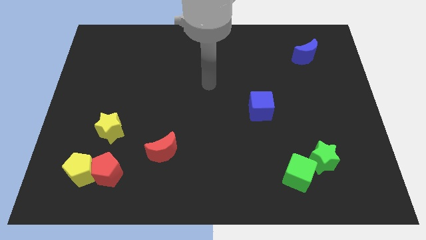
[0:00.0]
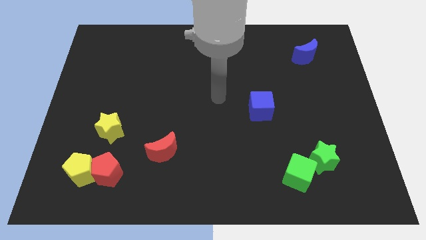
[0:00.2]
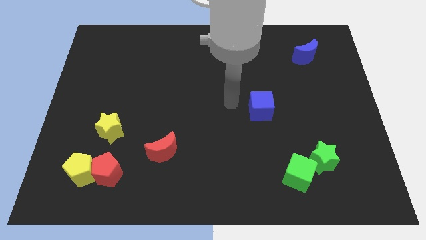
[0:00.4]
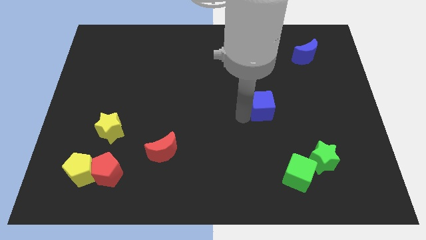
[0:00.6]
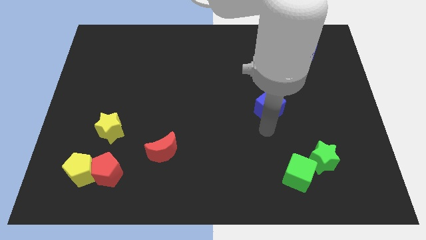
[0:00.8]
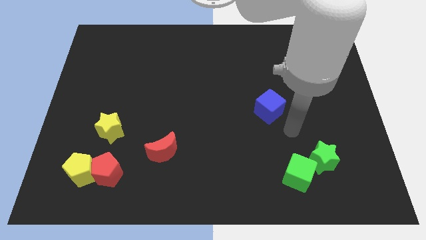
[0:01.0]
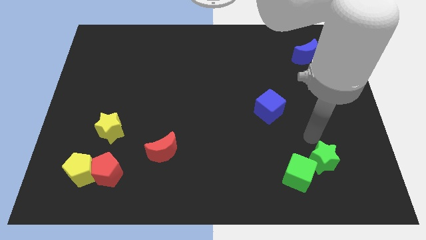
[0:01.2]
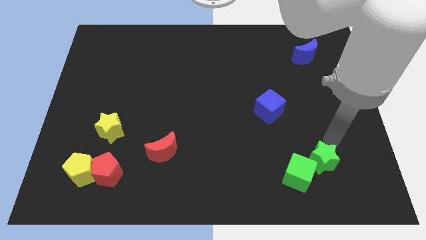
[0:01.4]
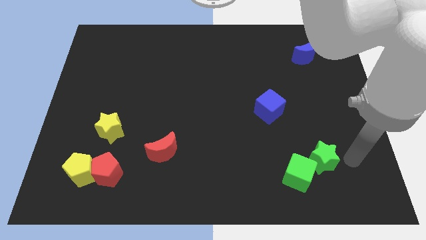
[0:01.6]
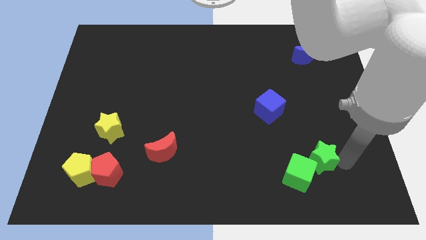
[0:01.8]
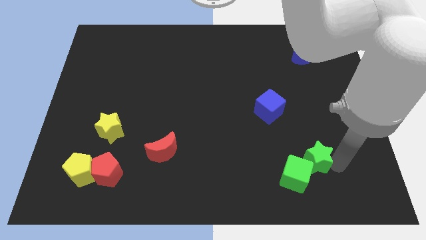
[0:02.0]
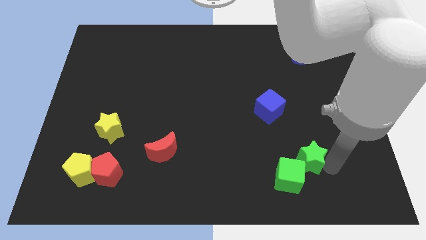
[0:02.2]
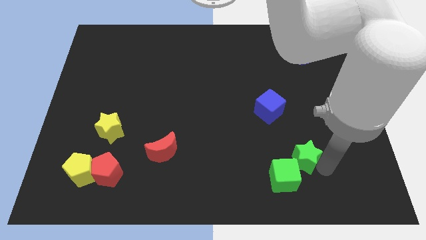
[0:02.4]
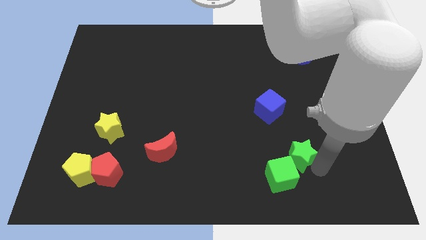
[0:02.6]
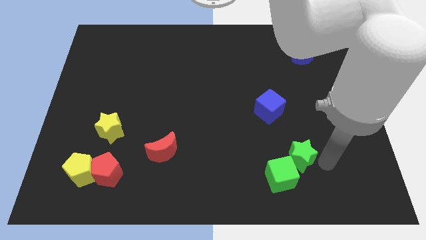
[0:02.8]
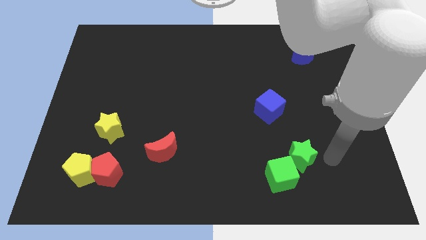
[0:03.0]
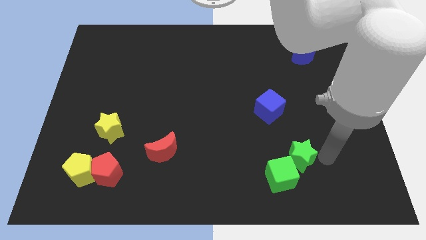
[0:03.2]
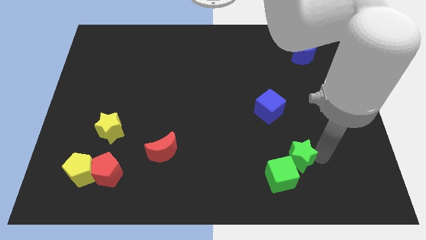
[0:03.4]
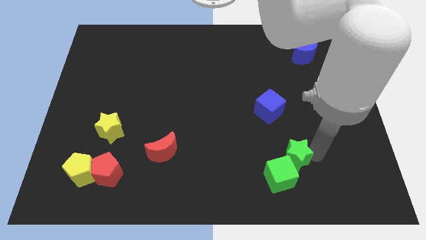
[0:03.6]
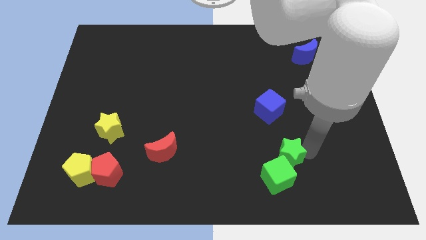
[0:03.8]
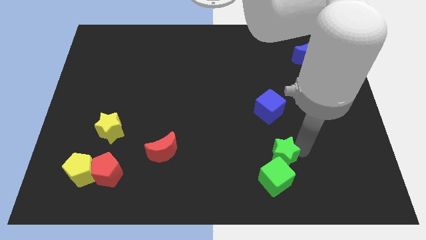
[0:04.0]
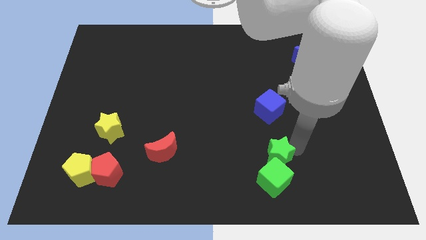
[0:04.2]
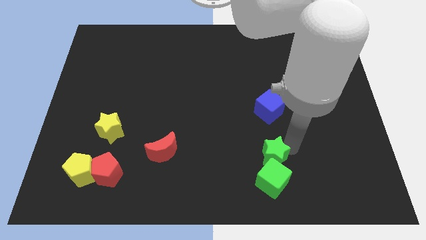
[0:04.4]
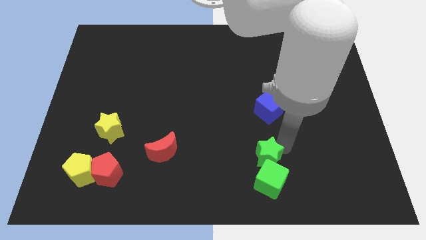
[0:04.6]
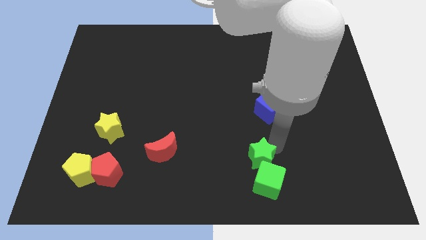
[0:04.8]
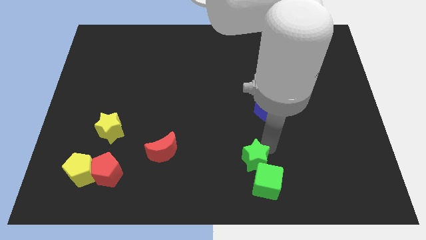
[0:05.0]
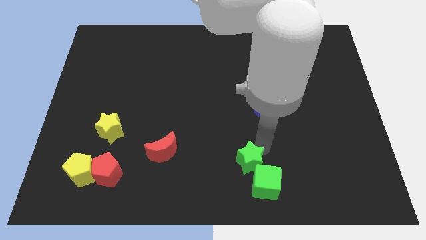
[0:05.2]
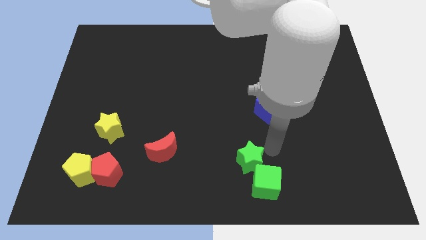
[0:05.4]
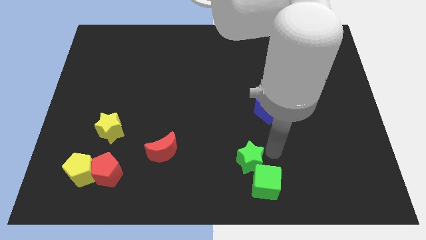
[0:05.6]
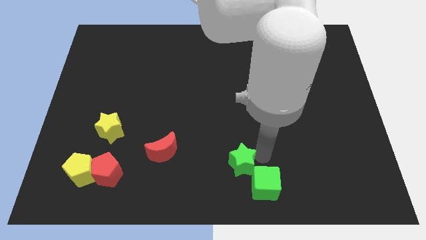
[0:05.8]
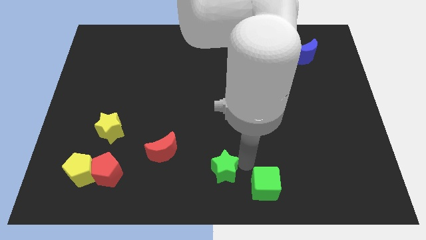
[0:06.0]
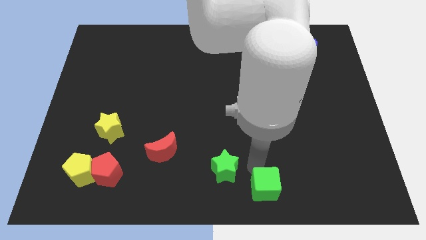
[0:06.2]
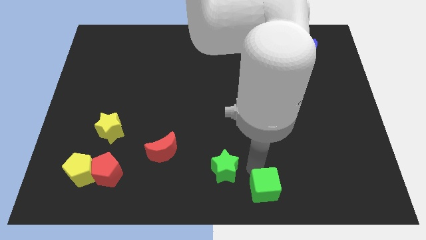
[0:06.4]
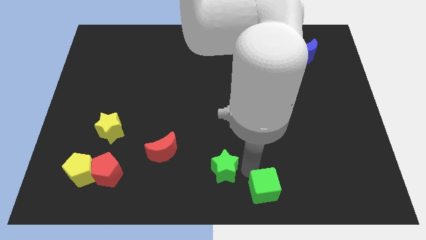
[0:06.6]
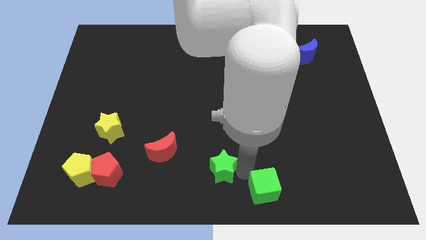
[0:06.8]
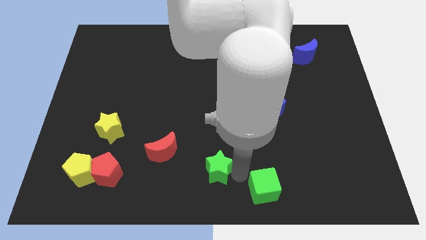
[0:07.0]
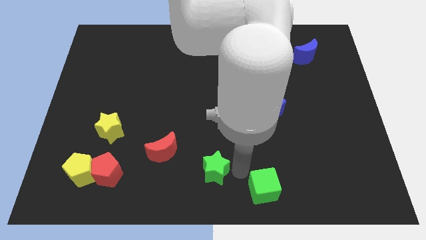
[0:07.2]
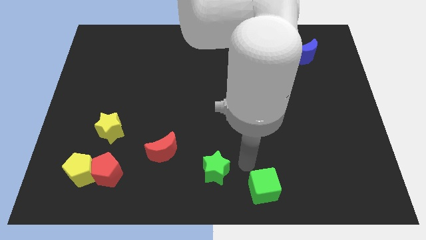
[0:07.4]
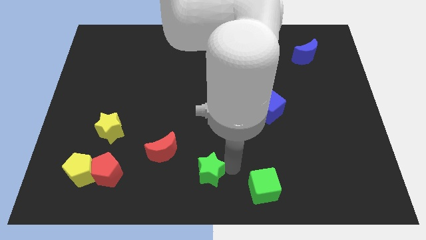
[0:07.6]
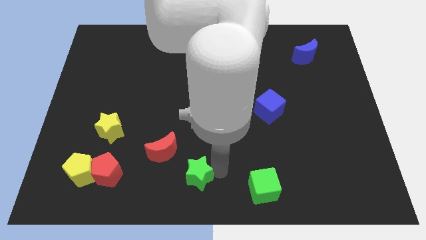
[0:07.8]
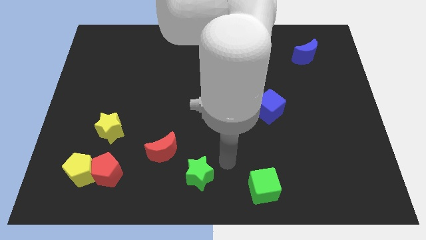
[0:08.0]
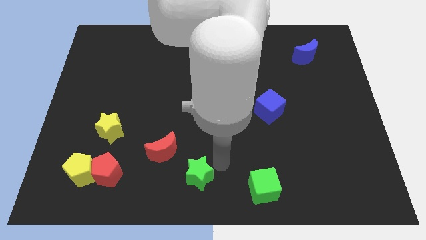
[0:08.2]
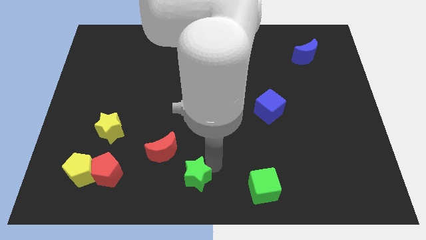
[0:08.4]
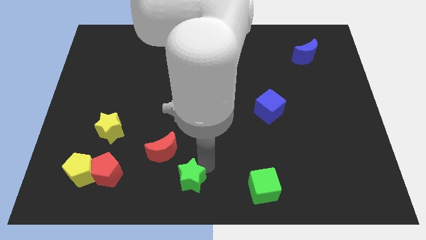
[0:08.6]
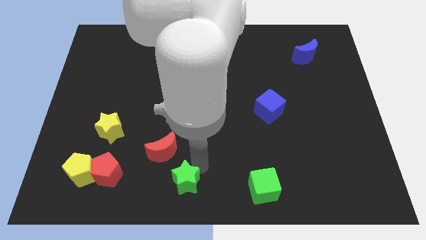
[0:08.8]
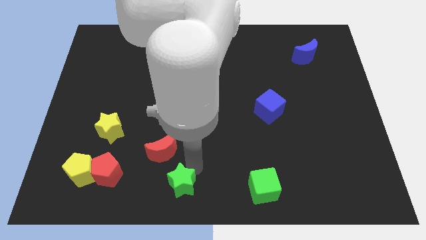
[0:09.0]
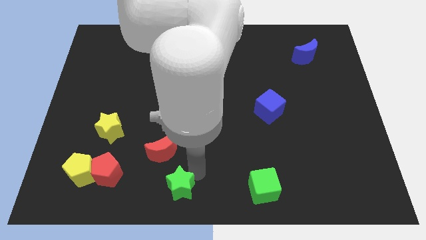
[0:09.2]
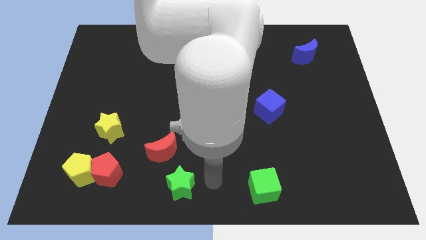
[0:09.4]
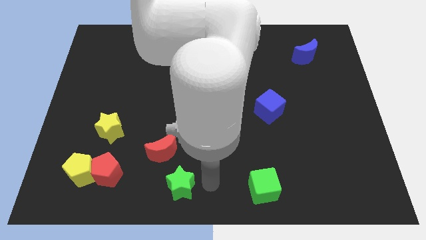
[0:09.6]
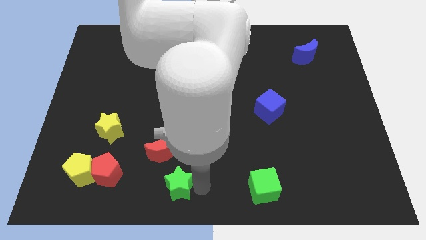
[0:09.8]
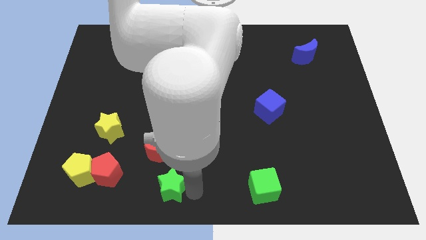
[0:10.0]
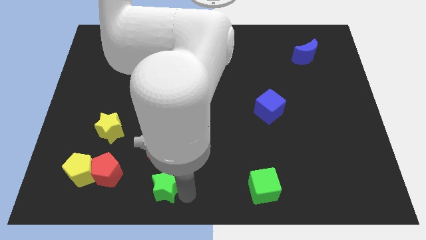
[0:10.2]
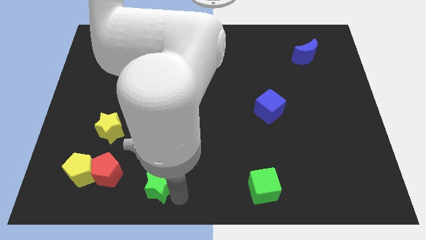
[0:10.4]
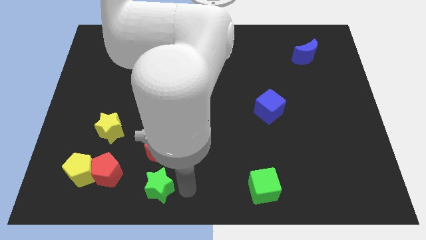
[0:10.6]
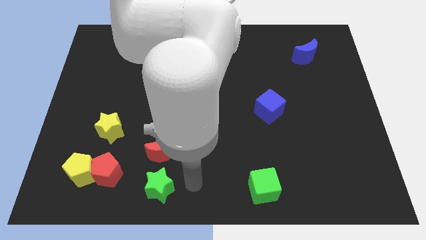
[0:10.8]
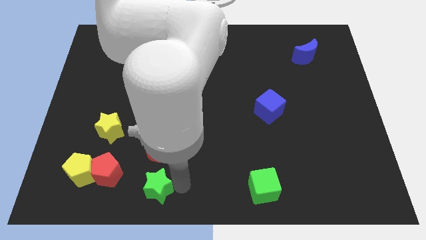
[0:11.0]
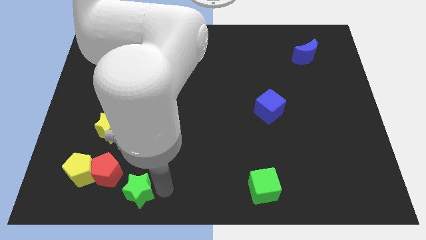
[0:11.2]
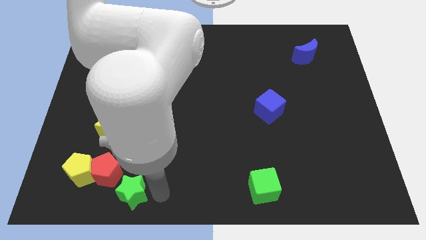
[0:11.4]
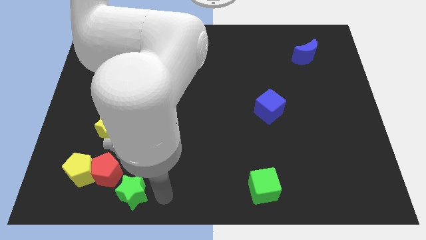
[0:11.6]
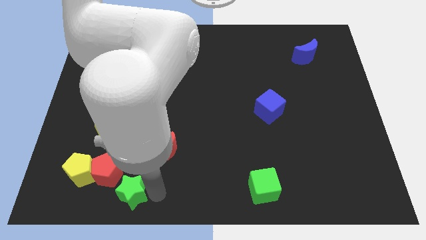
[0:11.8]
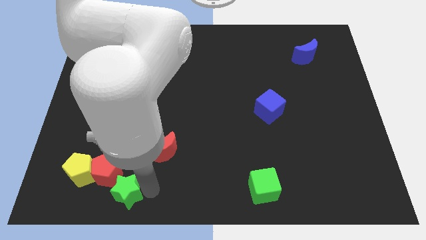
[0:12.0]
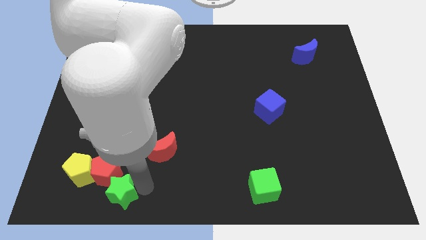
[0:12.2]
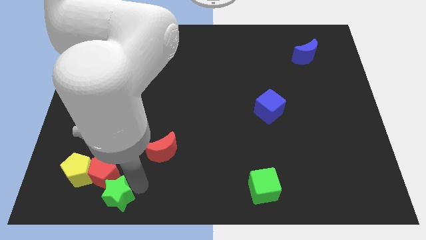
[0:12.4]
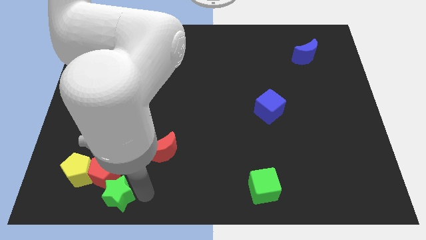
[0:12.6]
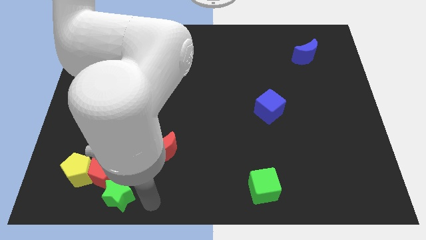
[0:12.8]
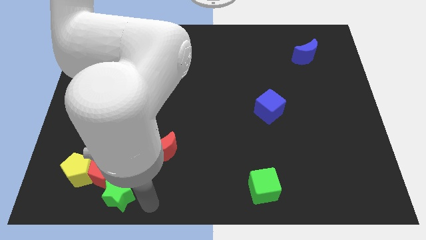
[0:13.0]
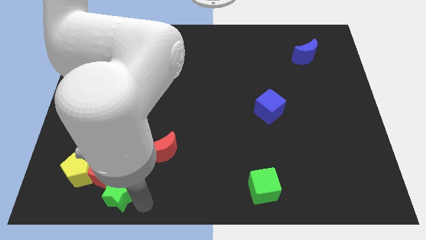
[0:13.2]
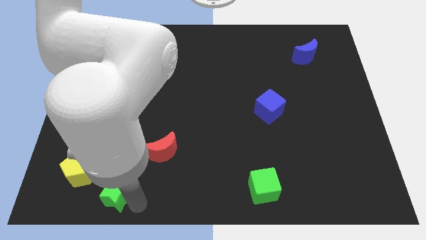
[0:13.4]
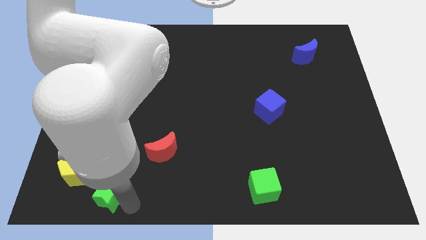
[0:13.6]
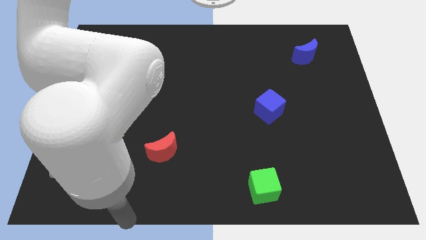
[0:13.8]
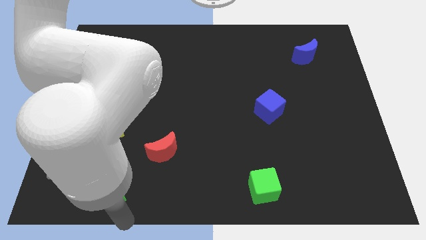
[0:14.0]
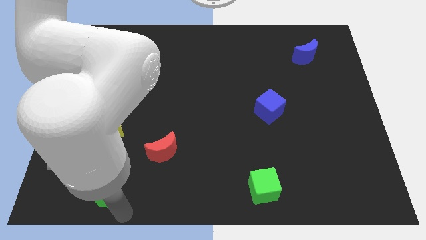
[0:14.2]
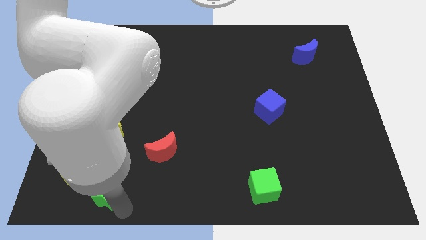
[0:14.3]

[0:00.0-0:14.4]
put the green star to the bottom of the yellow star

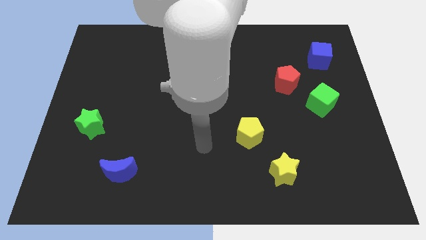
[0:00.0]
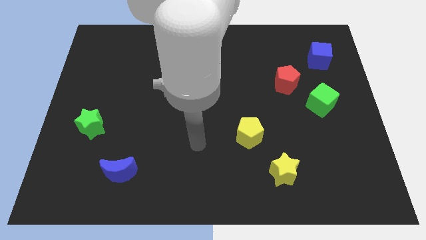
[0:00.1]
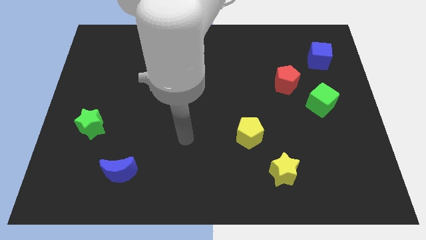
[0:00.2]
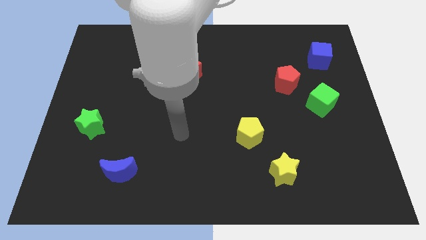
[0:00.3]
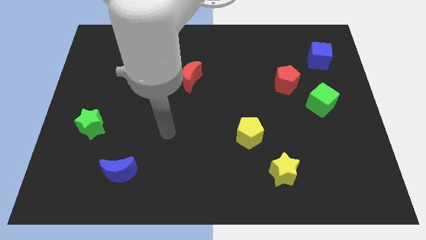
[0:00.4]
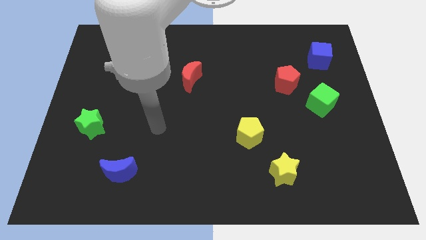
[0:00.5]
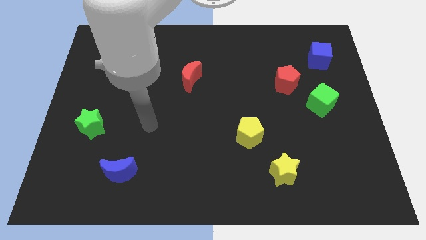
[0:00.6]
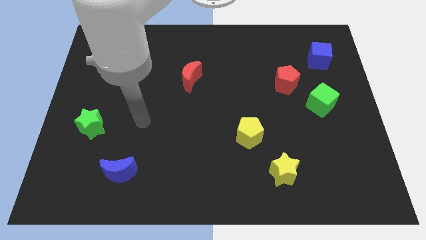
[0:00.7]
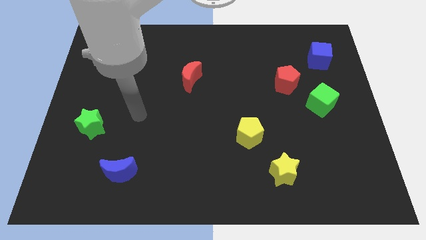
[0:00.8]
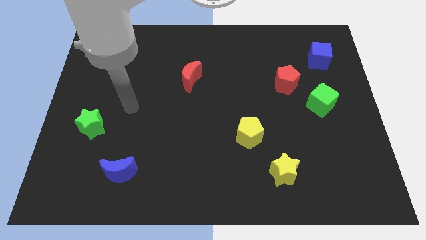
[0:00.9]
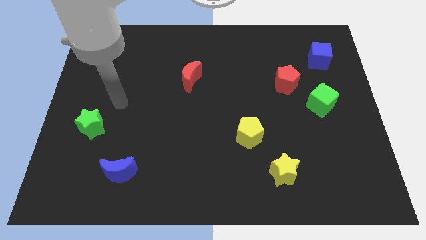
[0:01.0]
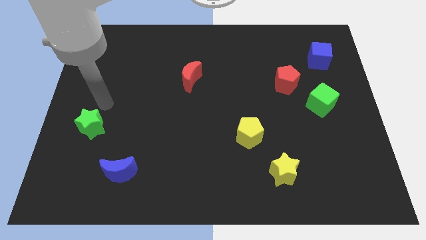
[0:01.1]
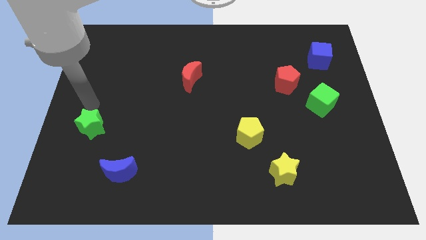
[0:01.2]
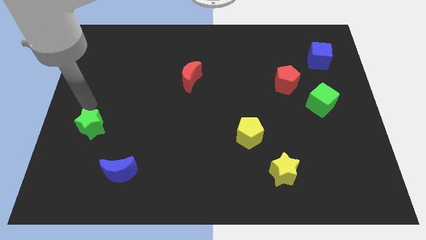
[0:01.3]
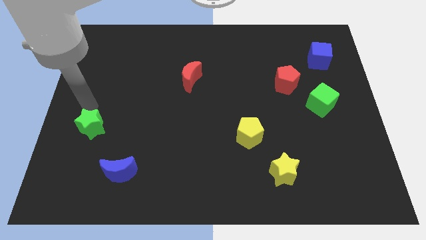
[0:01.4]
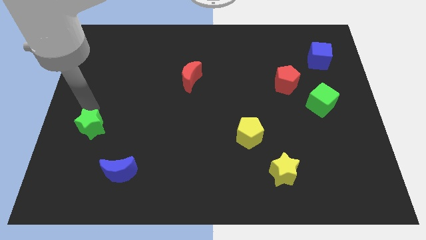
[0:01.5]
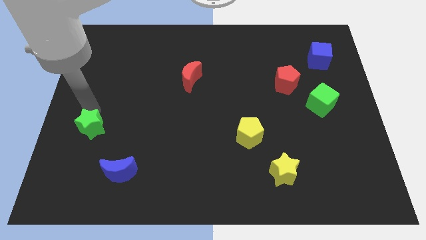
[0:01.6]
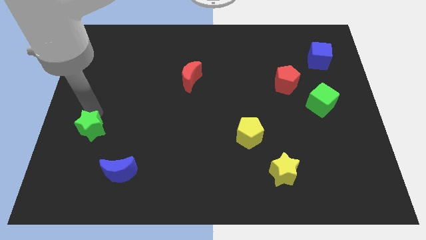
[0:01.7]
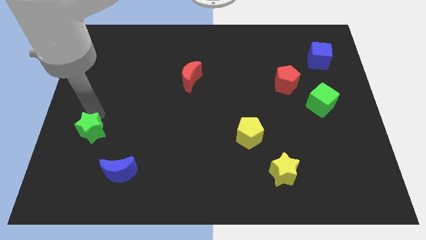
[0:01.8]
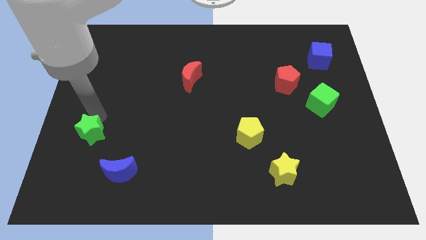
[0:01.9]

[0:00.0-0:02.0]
move the green star to the top left side of the blue moon
